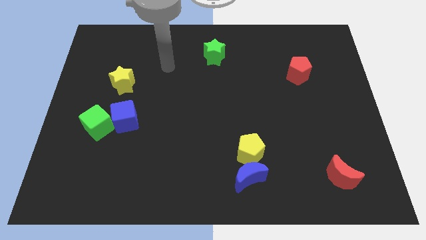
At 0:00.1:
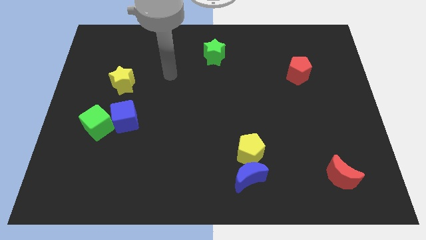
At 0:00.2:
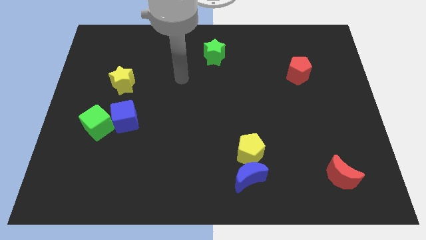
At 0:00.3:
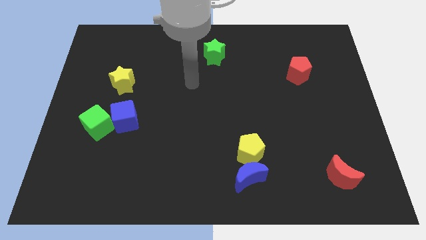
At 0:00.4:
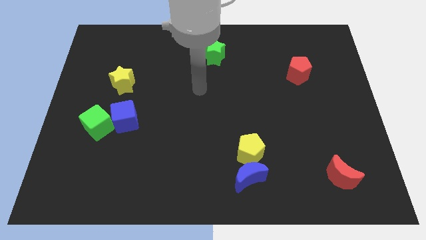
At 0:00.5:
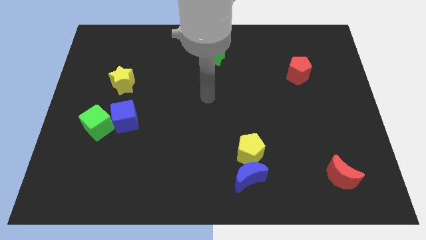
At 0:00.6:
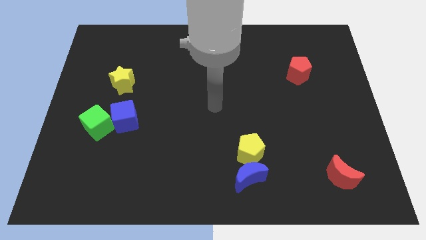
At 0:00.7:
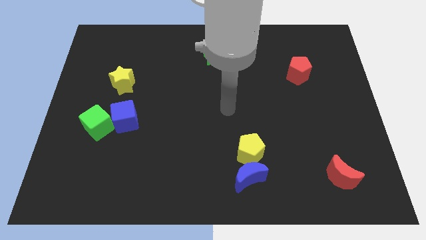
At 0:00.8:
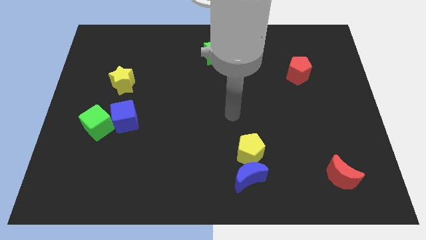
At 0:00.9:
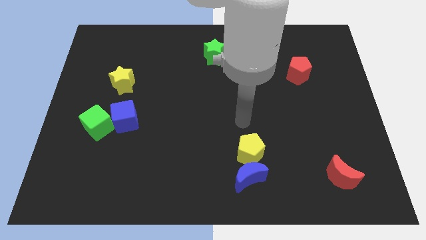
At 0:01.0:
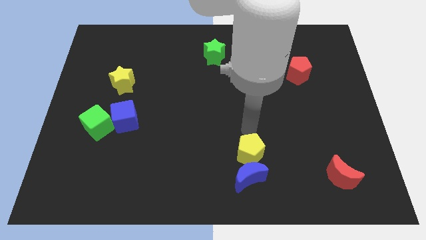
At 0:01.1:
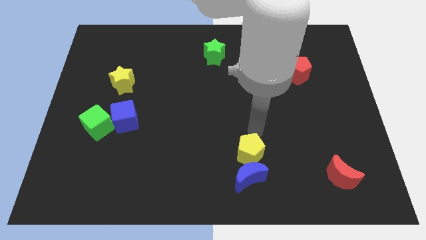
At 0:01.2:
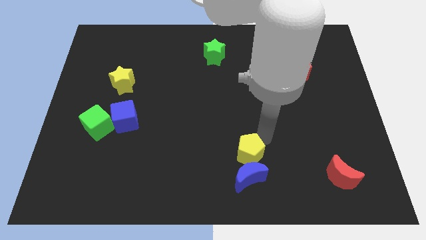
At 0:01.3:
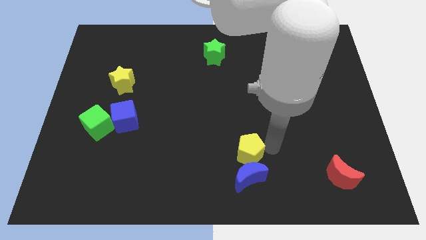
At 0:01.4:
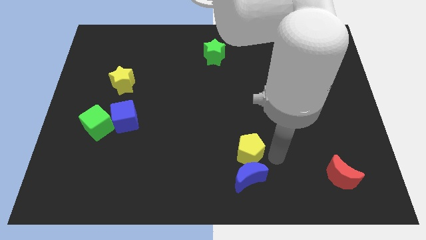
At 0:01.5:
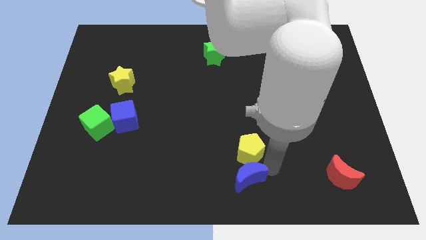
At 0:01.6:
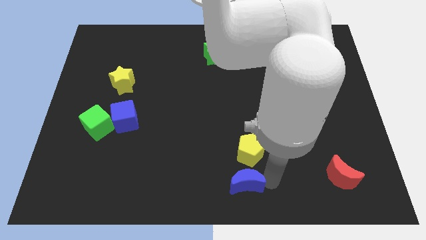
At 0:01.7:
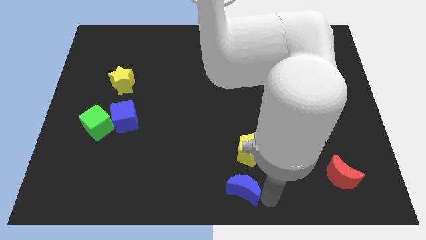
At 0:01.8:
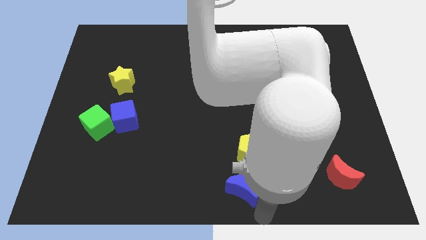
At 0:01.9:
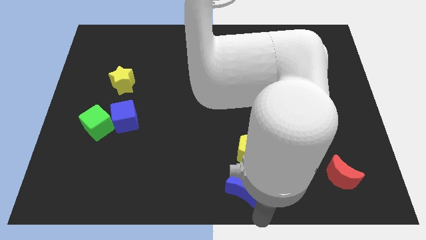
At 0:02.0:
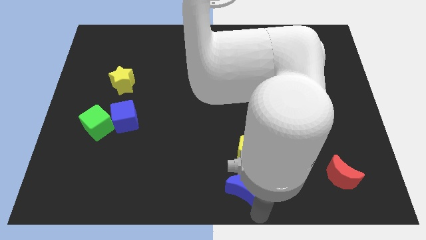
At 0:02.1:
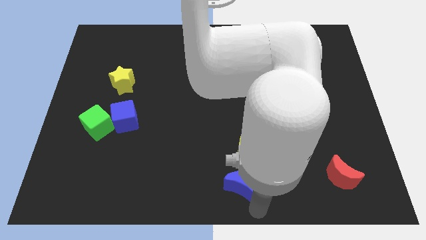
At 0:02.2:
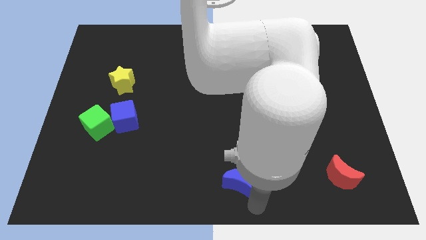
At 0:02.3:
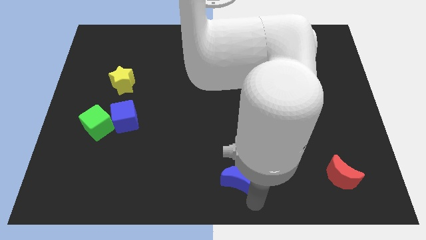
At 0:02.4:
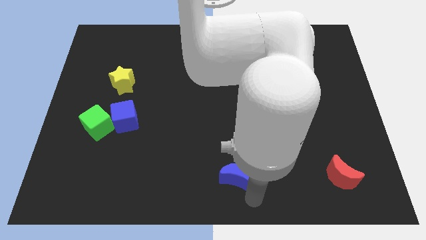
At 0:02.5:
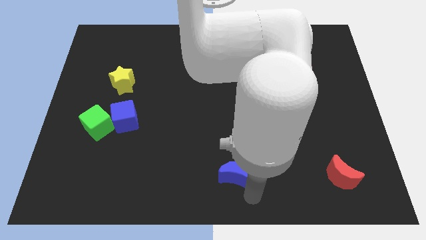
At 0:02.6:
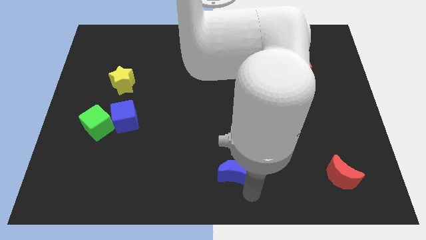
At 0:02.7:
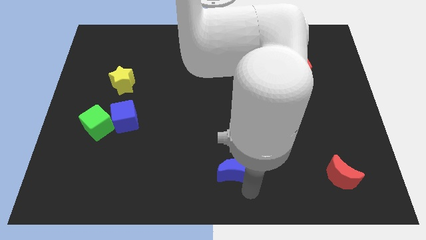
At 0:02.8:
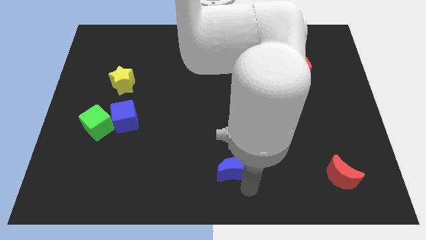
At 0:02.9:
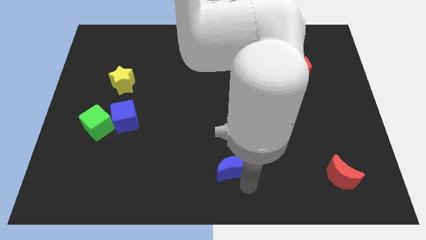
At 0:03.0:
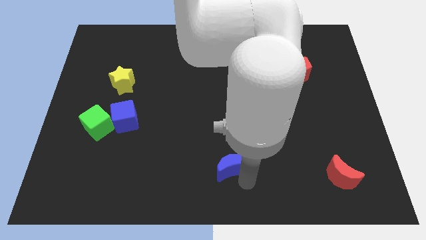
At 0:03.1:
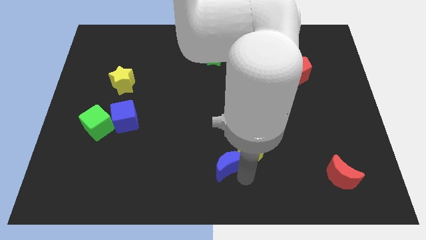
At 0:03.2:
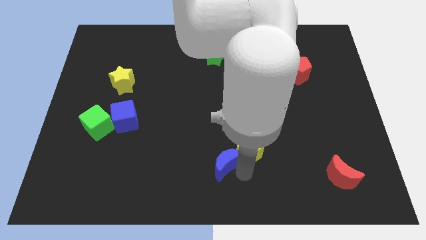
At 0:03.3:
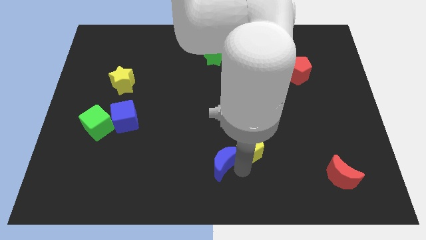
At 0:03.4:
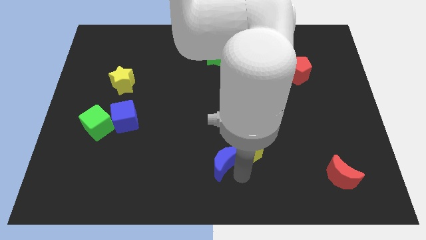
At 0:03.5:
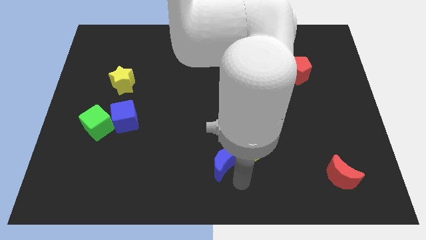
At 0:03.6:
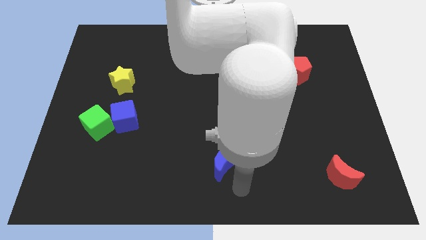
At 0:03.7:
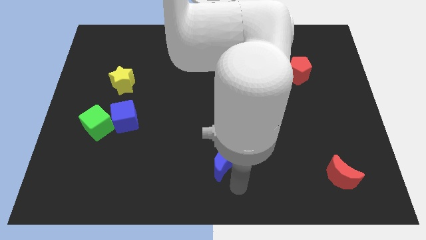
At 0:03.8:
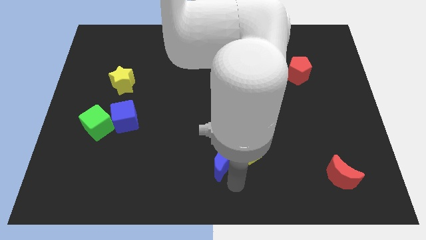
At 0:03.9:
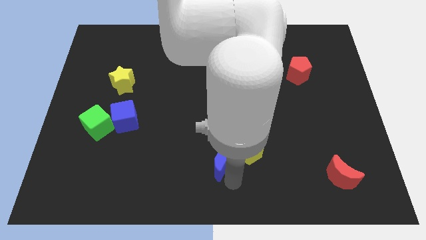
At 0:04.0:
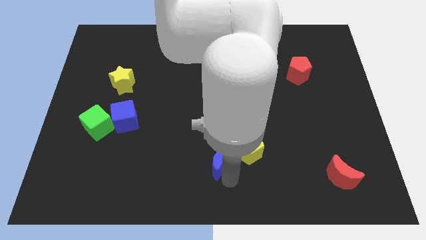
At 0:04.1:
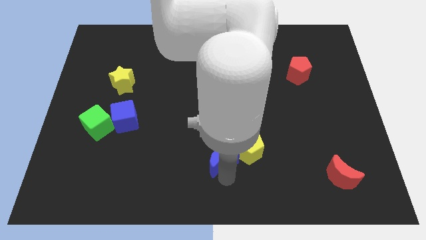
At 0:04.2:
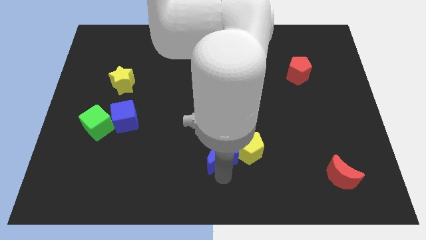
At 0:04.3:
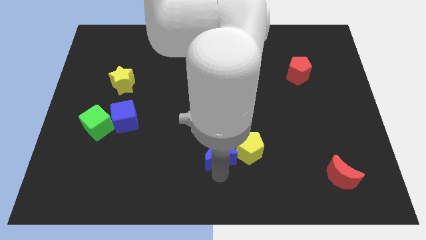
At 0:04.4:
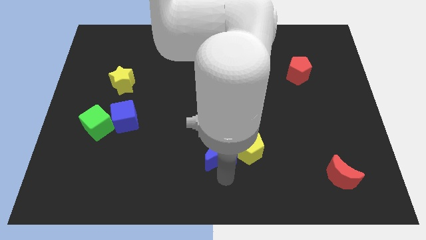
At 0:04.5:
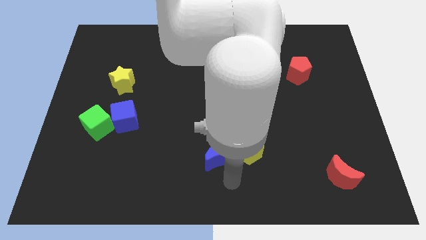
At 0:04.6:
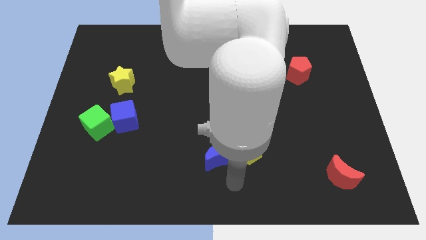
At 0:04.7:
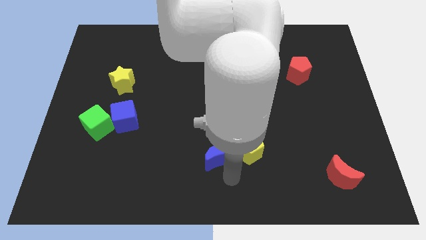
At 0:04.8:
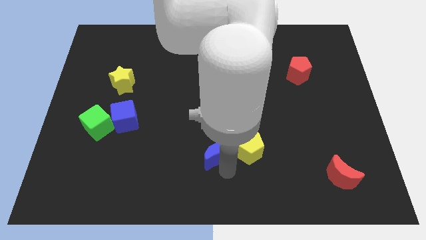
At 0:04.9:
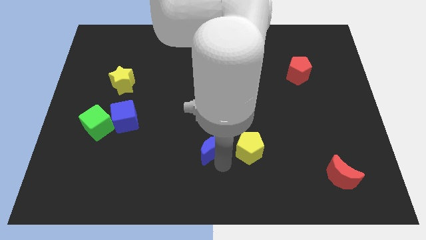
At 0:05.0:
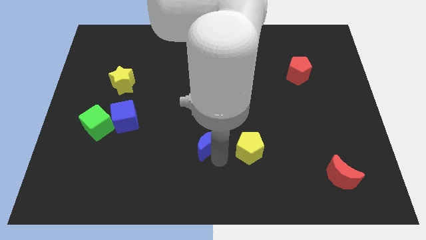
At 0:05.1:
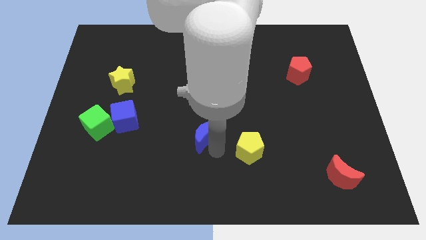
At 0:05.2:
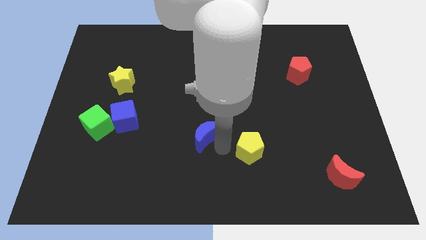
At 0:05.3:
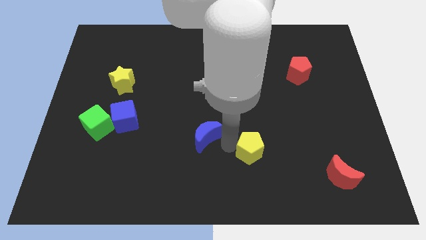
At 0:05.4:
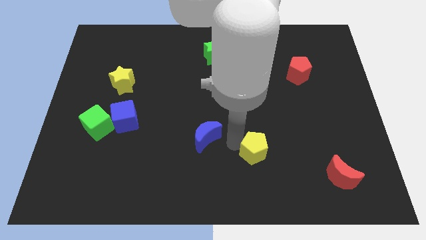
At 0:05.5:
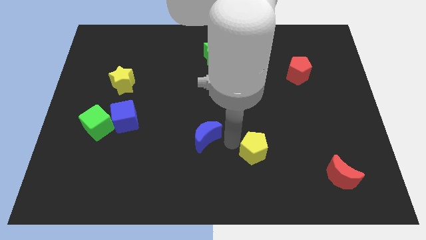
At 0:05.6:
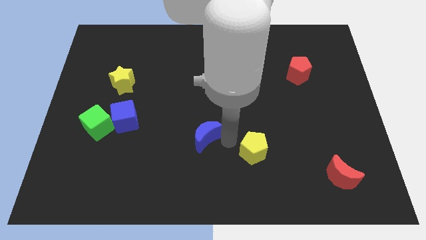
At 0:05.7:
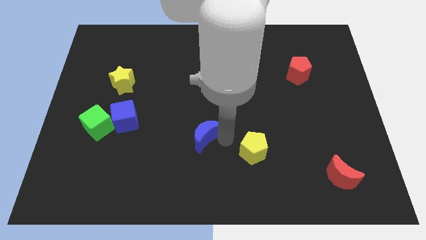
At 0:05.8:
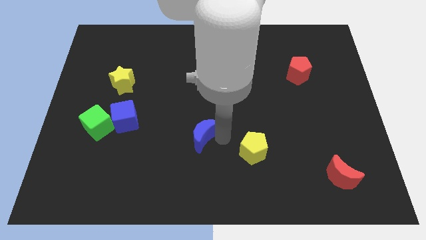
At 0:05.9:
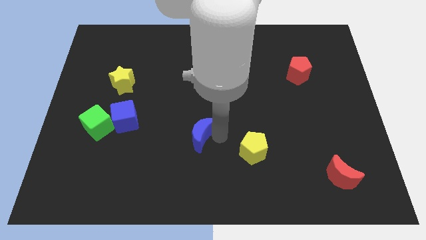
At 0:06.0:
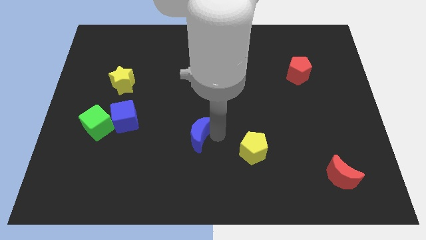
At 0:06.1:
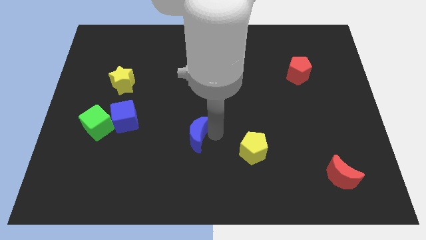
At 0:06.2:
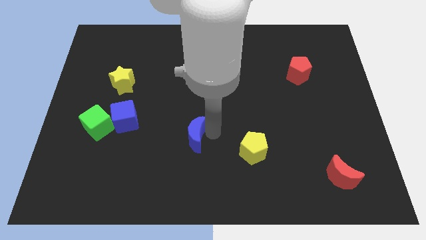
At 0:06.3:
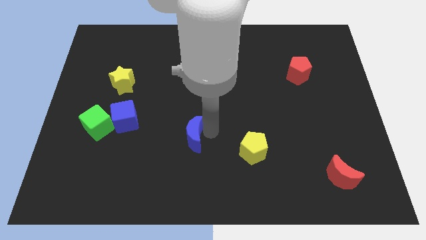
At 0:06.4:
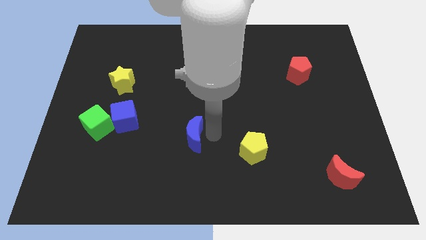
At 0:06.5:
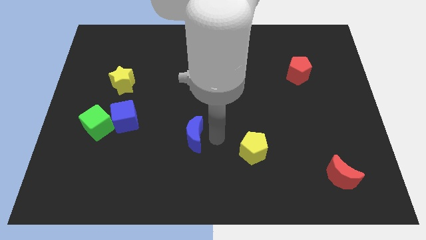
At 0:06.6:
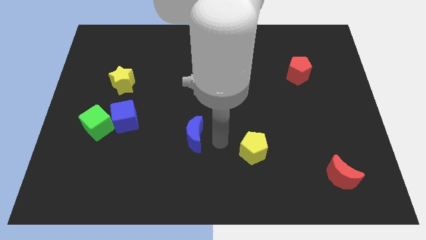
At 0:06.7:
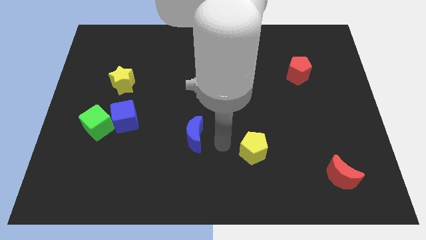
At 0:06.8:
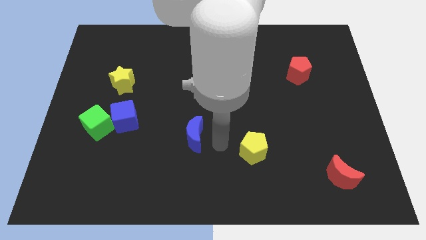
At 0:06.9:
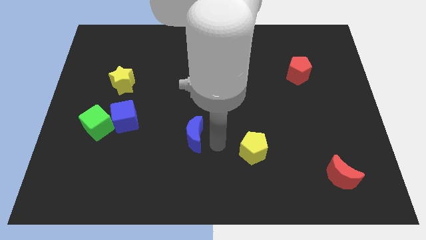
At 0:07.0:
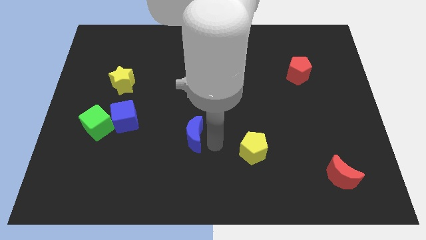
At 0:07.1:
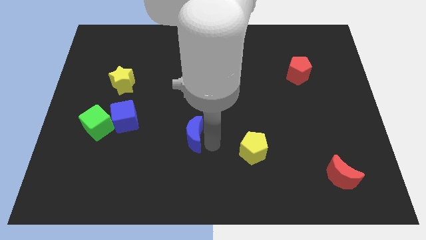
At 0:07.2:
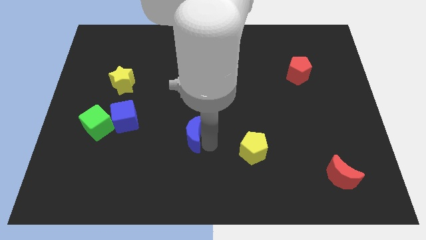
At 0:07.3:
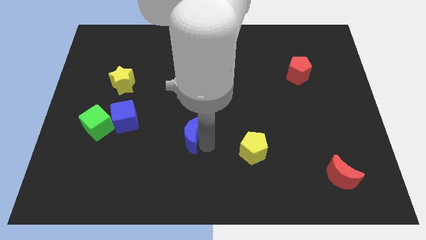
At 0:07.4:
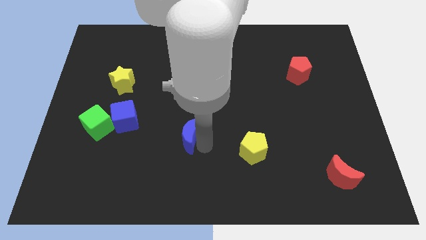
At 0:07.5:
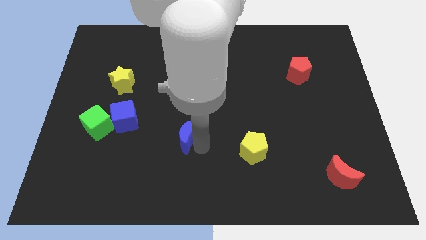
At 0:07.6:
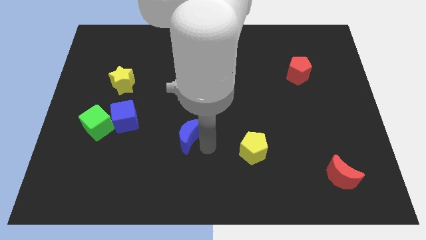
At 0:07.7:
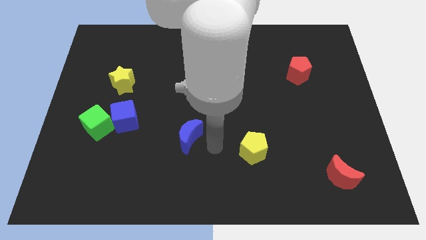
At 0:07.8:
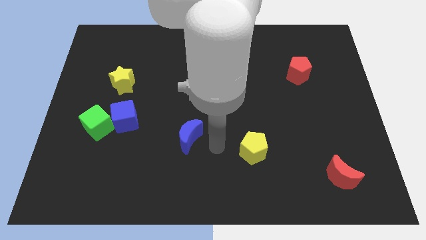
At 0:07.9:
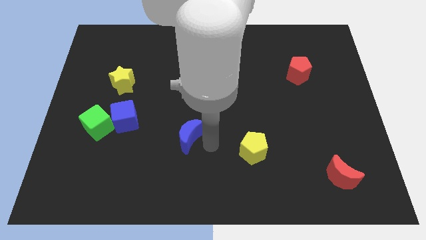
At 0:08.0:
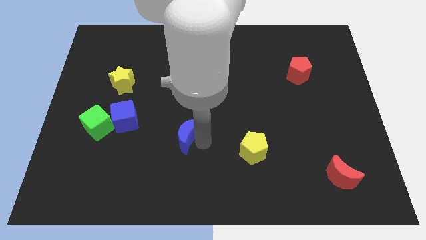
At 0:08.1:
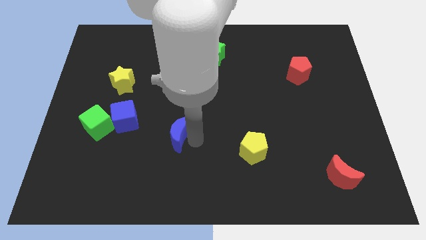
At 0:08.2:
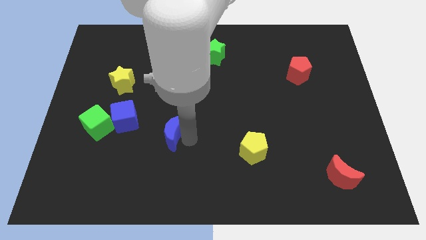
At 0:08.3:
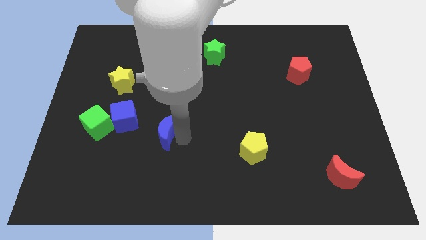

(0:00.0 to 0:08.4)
move the blue moon to the right of the green cube
